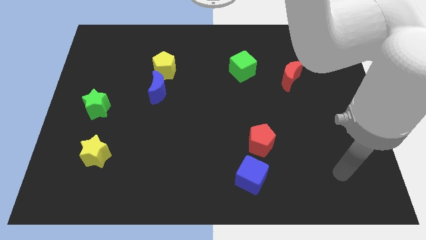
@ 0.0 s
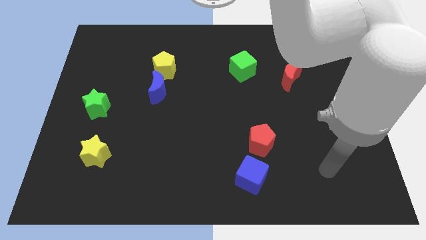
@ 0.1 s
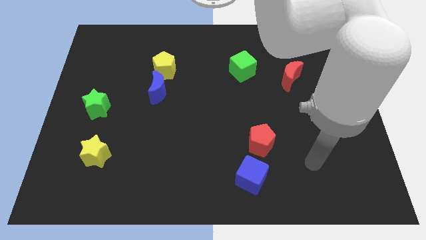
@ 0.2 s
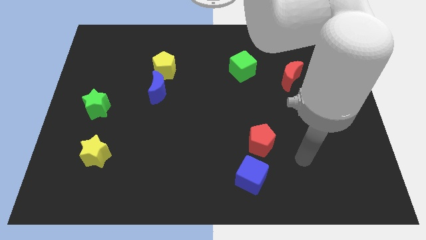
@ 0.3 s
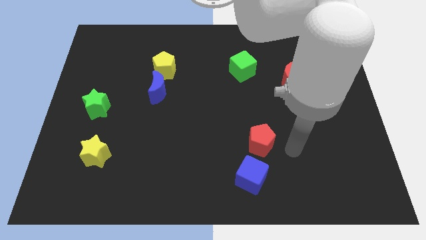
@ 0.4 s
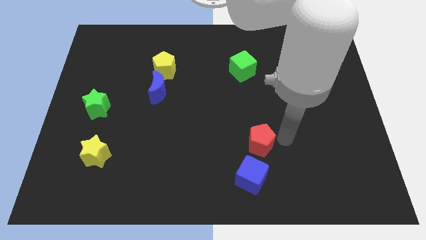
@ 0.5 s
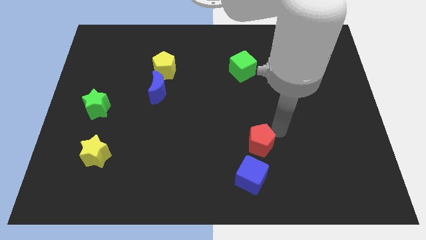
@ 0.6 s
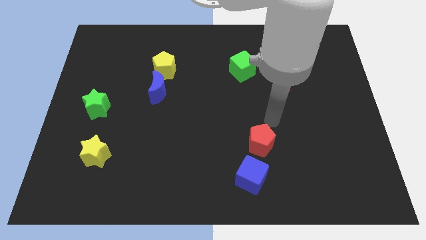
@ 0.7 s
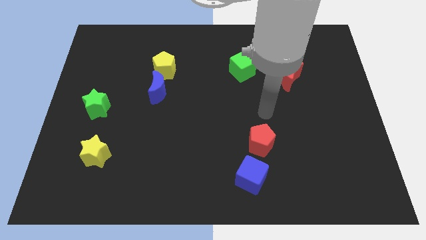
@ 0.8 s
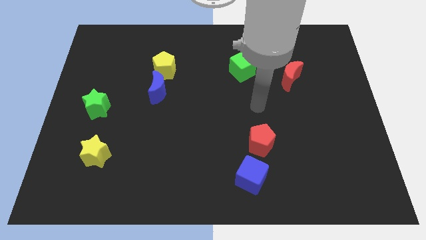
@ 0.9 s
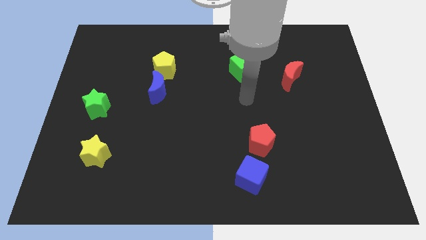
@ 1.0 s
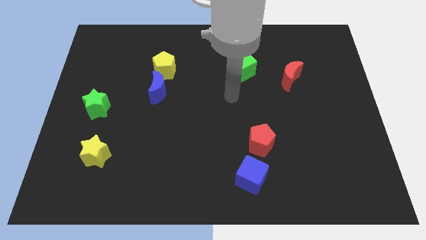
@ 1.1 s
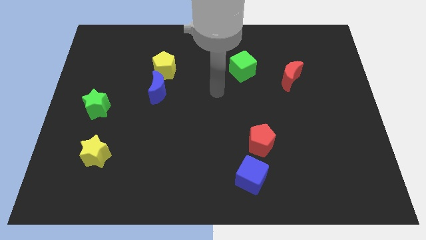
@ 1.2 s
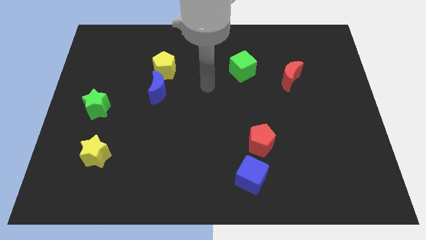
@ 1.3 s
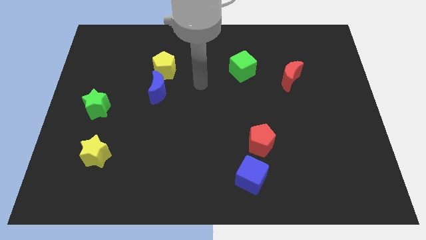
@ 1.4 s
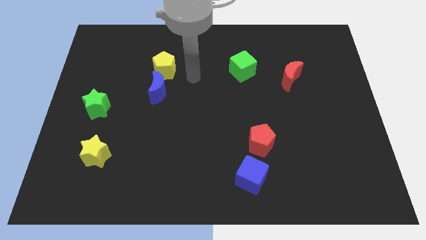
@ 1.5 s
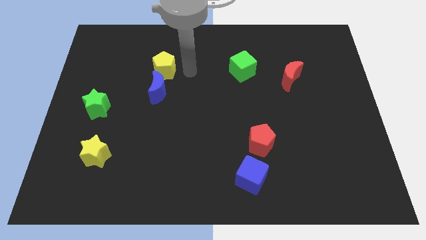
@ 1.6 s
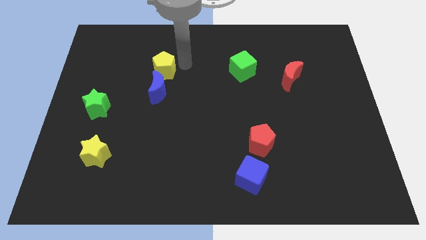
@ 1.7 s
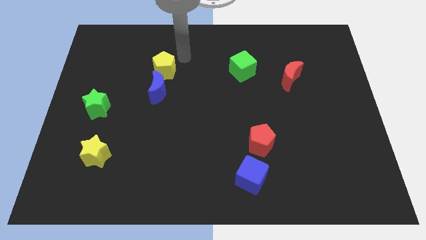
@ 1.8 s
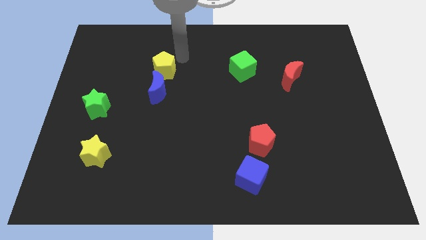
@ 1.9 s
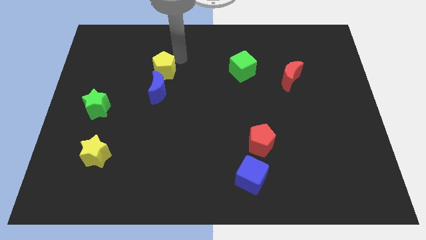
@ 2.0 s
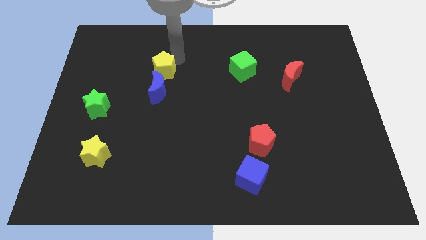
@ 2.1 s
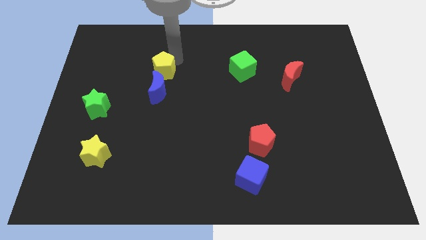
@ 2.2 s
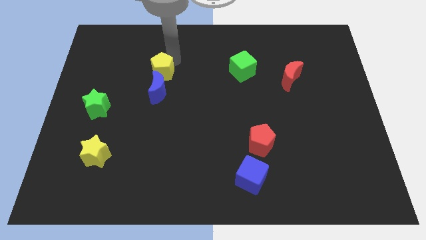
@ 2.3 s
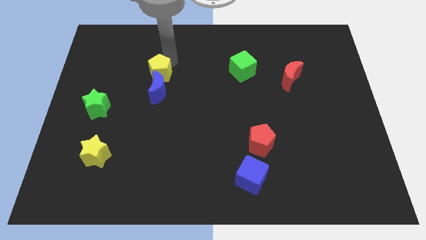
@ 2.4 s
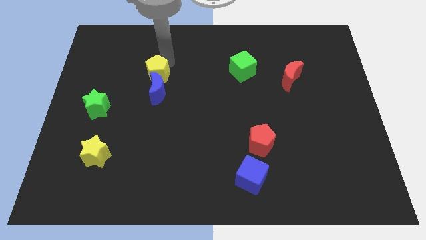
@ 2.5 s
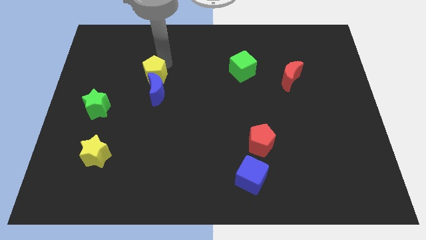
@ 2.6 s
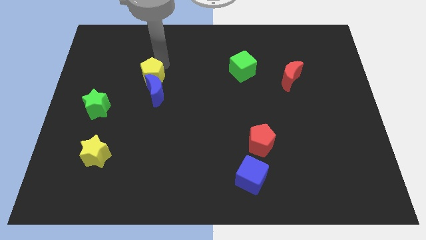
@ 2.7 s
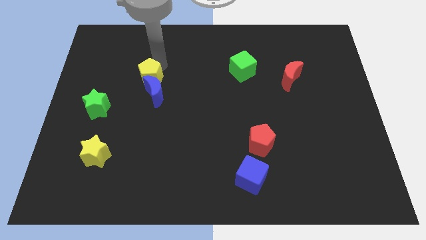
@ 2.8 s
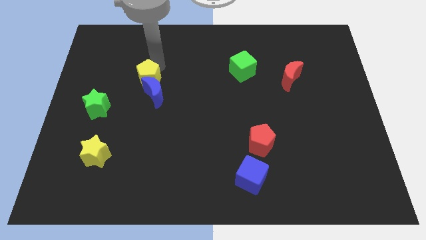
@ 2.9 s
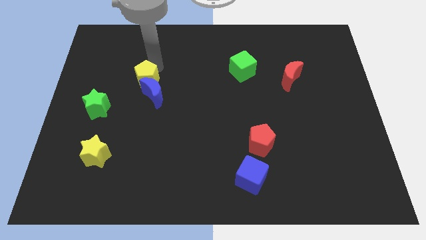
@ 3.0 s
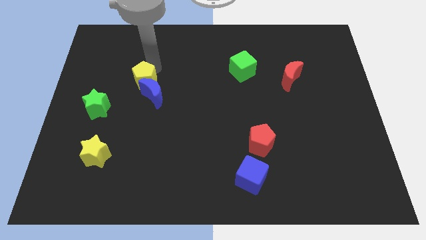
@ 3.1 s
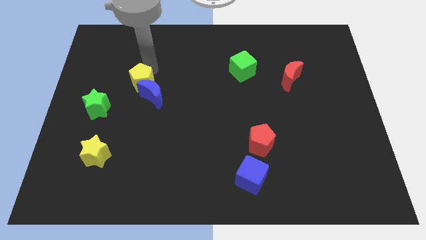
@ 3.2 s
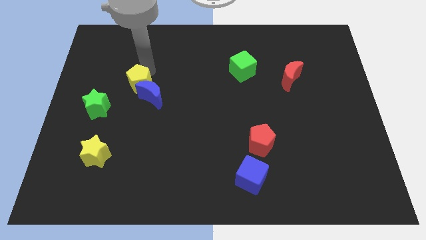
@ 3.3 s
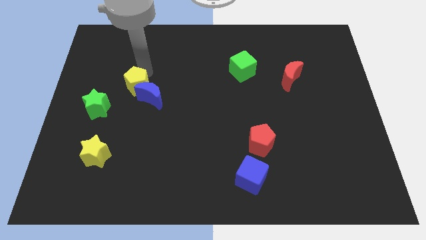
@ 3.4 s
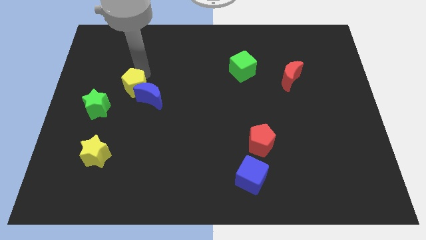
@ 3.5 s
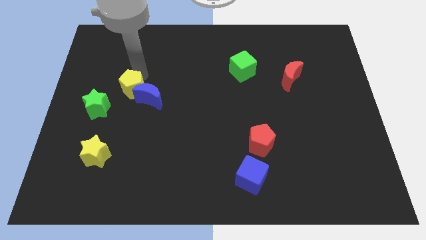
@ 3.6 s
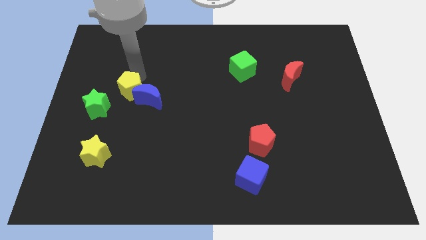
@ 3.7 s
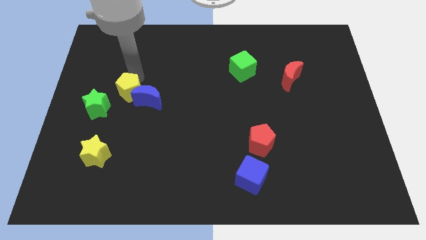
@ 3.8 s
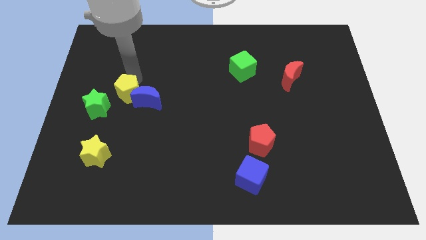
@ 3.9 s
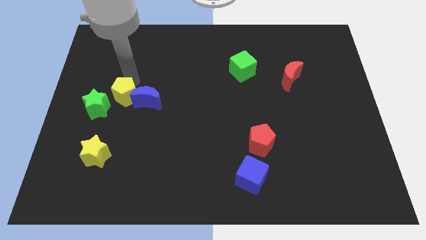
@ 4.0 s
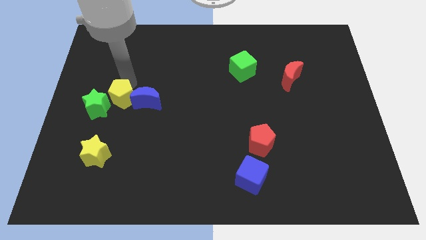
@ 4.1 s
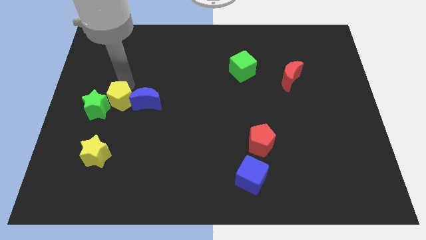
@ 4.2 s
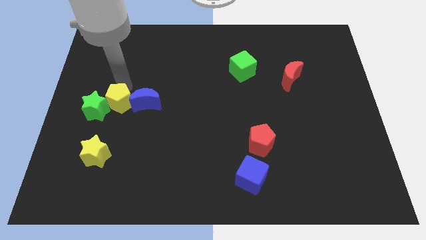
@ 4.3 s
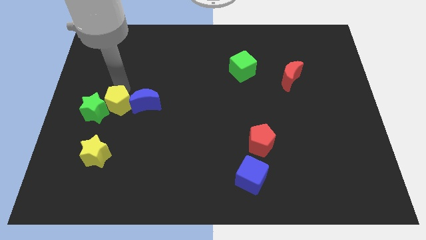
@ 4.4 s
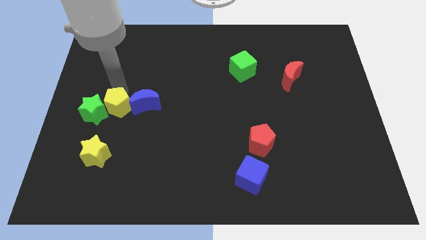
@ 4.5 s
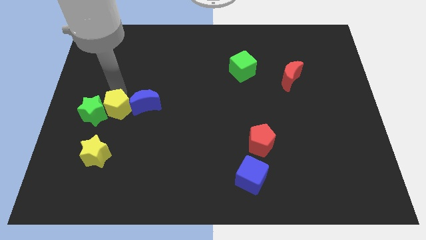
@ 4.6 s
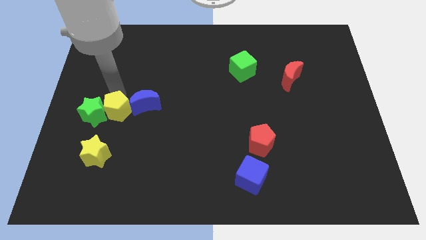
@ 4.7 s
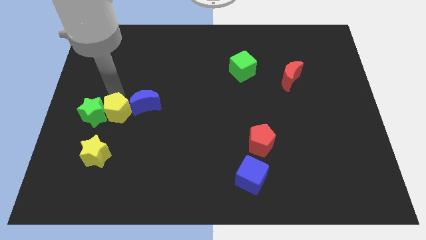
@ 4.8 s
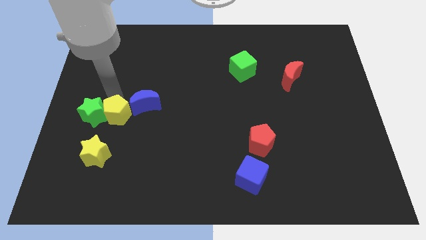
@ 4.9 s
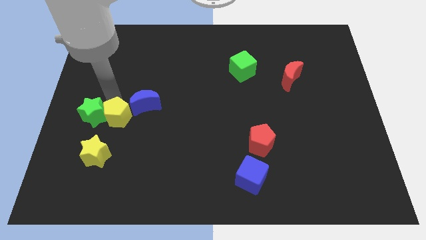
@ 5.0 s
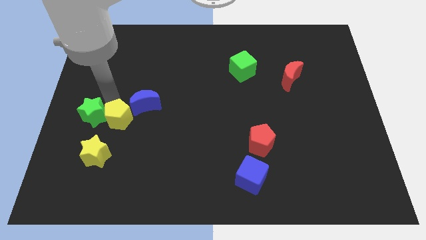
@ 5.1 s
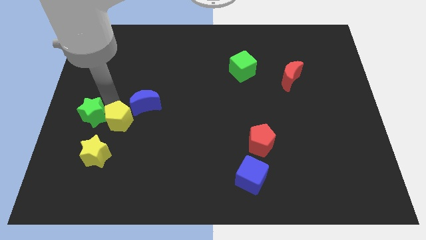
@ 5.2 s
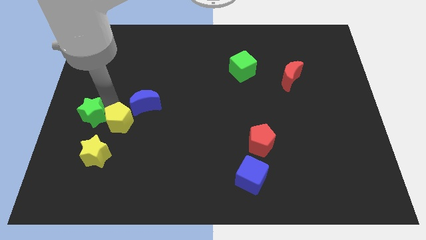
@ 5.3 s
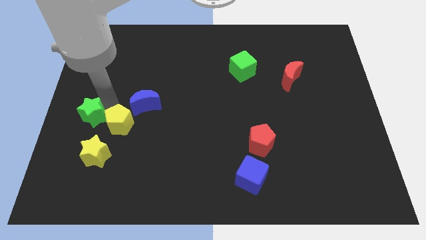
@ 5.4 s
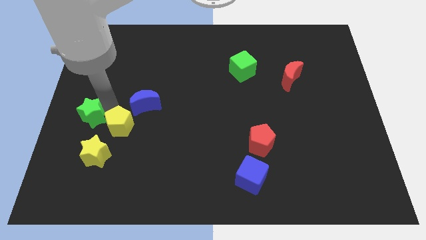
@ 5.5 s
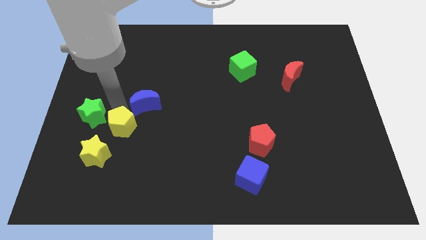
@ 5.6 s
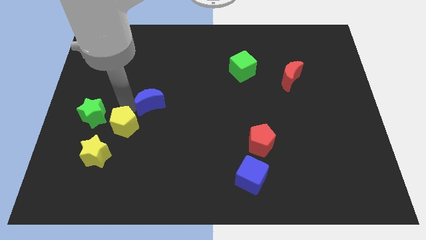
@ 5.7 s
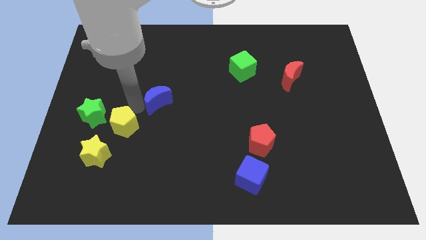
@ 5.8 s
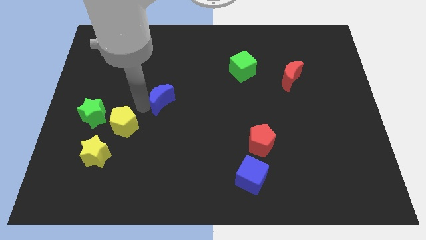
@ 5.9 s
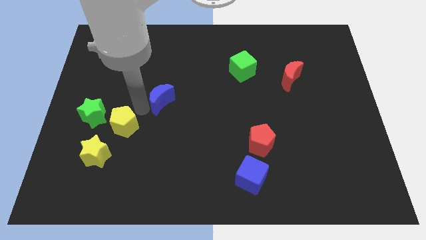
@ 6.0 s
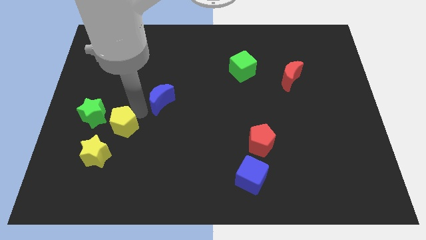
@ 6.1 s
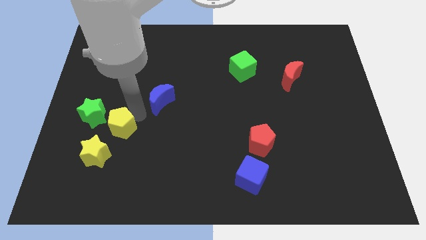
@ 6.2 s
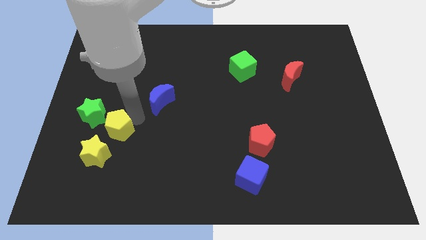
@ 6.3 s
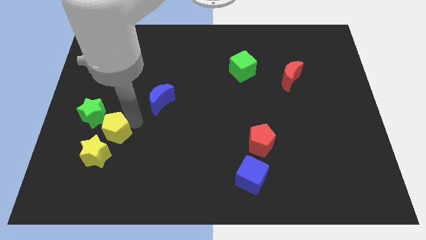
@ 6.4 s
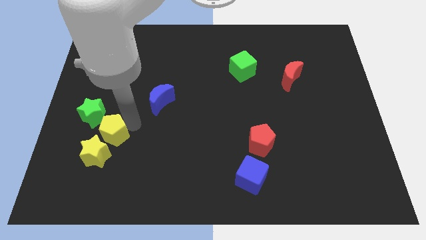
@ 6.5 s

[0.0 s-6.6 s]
push the yellow pentagon to the yellow star
